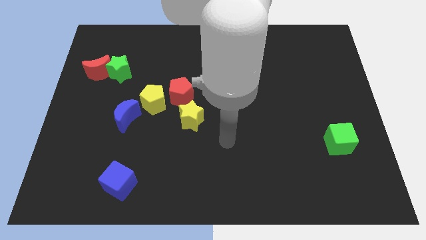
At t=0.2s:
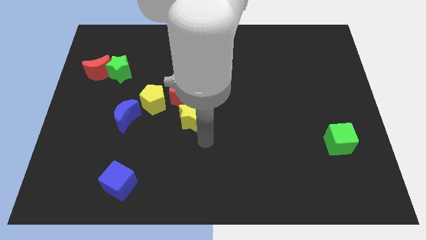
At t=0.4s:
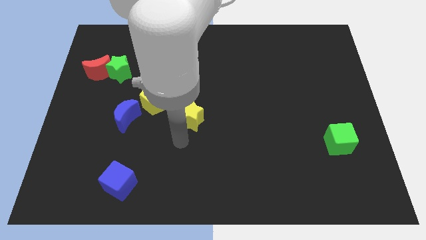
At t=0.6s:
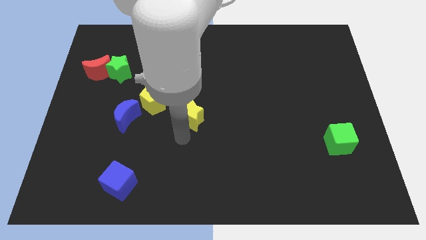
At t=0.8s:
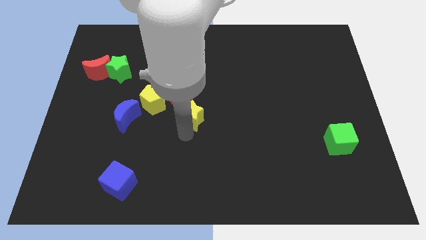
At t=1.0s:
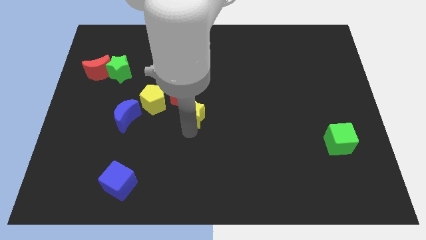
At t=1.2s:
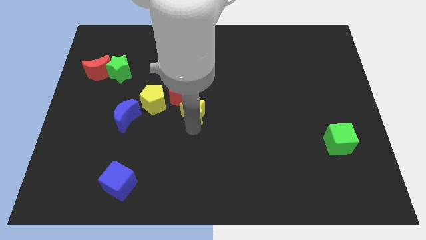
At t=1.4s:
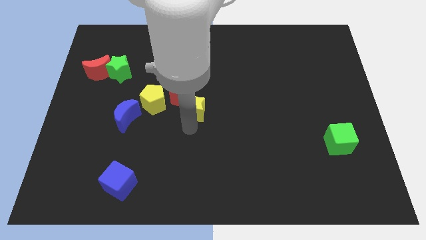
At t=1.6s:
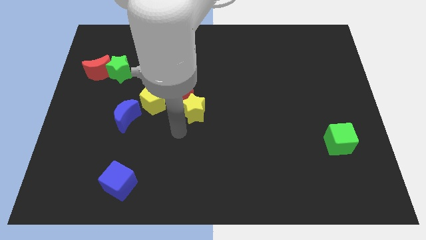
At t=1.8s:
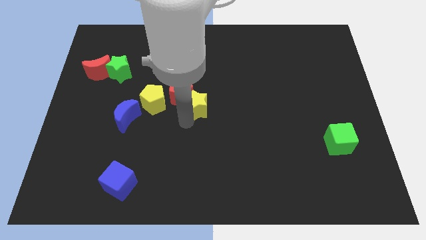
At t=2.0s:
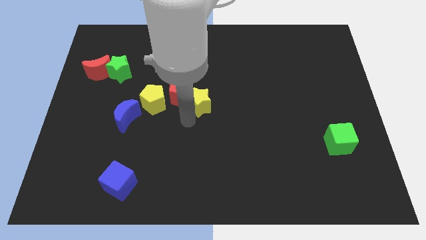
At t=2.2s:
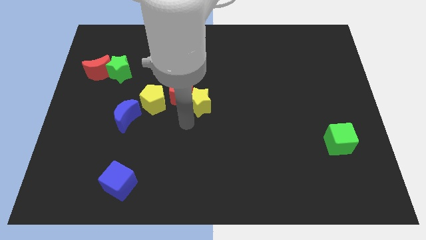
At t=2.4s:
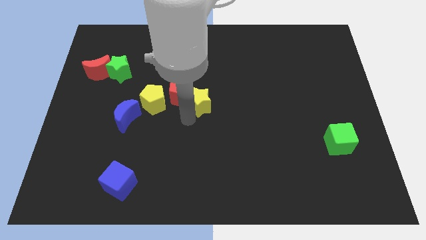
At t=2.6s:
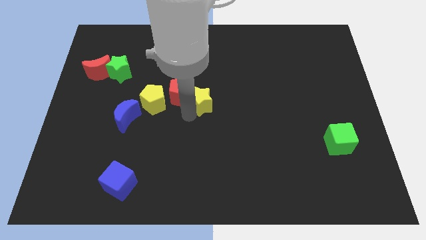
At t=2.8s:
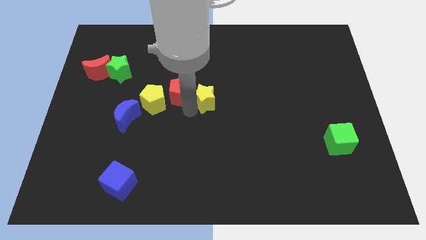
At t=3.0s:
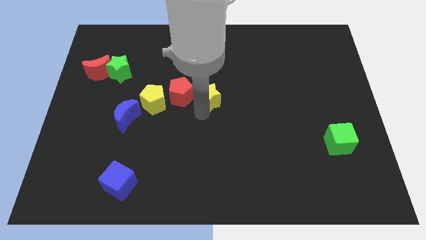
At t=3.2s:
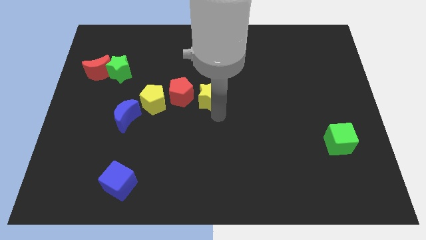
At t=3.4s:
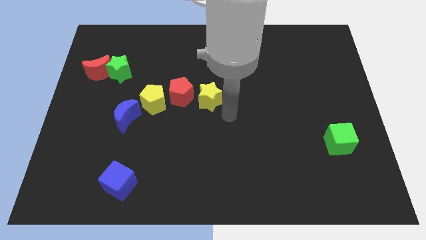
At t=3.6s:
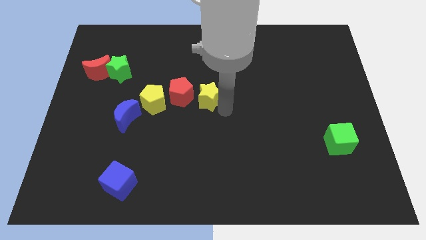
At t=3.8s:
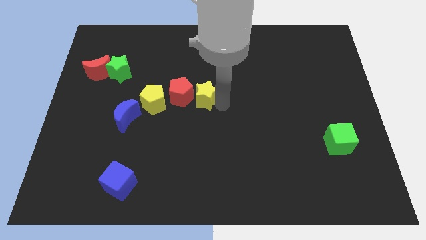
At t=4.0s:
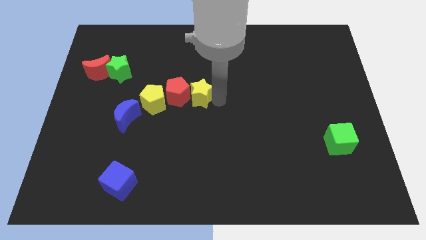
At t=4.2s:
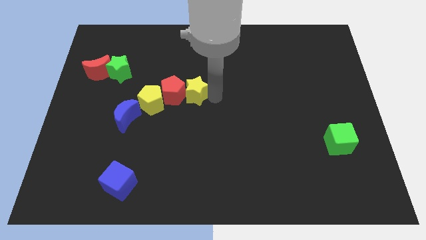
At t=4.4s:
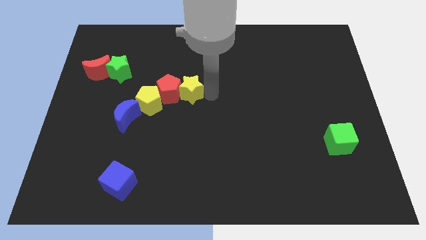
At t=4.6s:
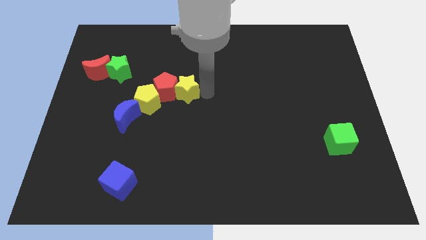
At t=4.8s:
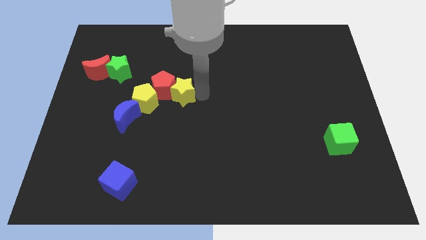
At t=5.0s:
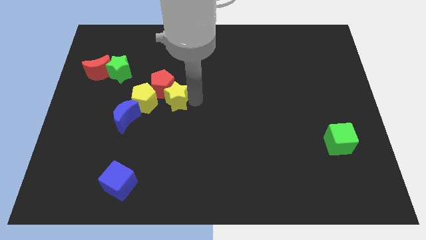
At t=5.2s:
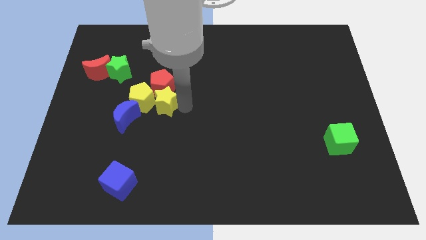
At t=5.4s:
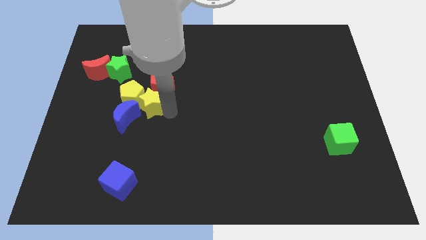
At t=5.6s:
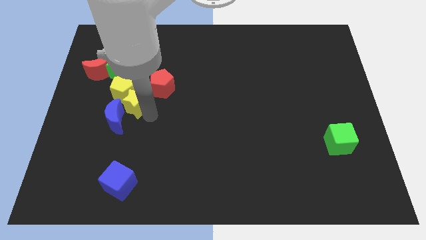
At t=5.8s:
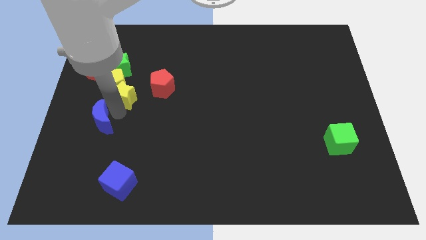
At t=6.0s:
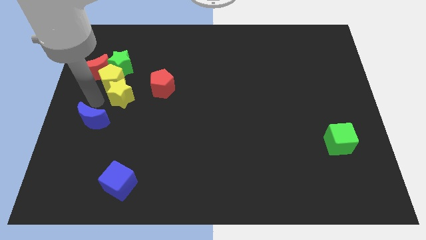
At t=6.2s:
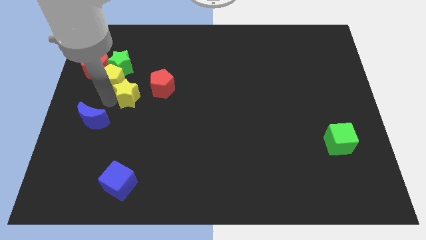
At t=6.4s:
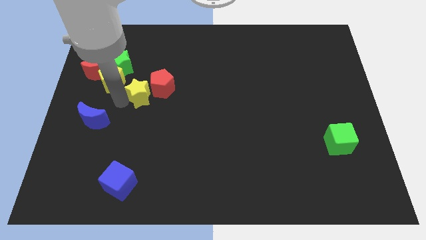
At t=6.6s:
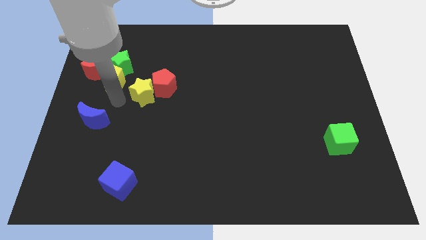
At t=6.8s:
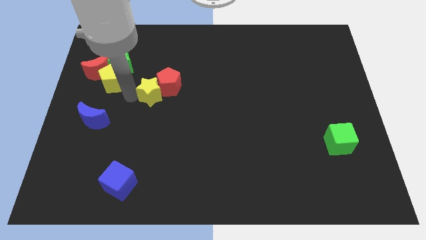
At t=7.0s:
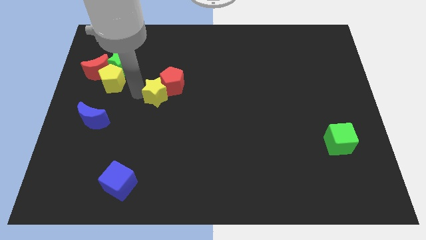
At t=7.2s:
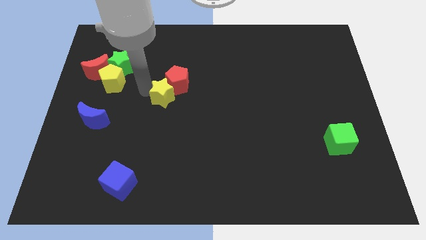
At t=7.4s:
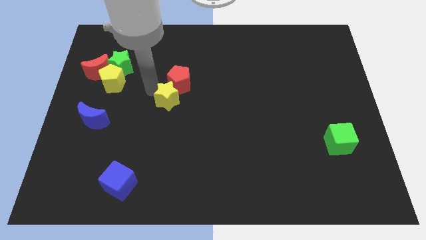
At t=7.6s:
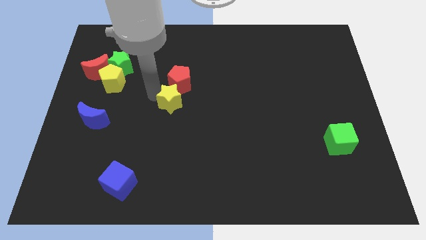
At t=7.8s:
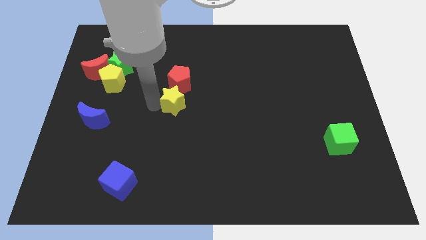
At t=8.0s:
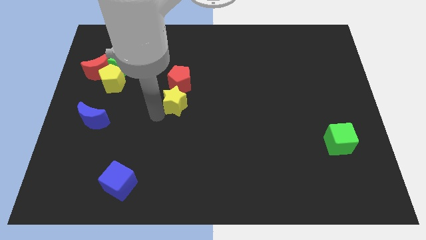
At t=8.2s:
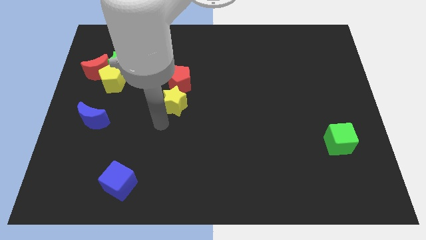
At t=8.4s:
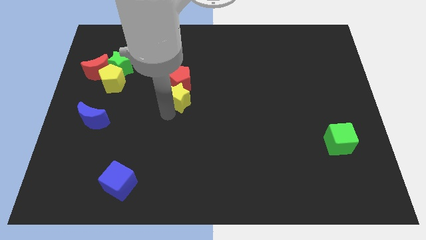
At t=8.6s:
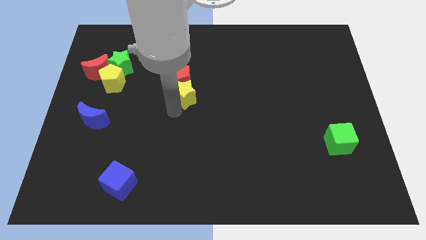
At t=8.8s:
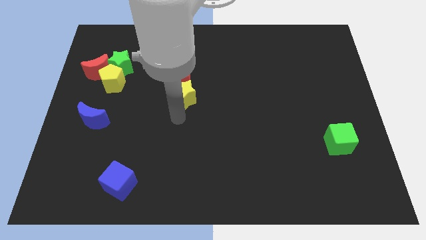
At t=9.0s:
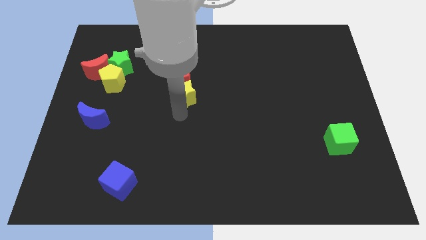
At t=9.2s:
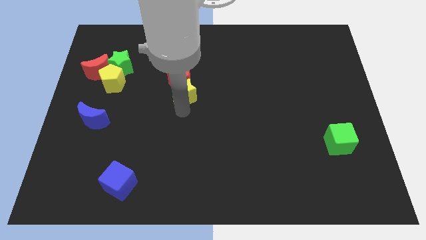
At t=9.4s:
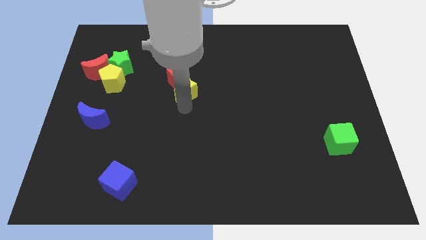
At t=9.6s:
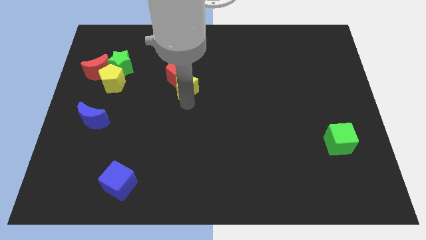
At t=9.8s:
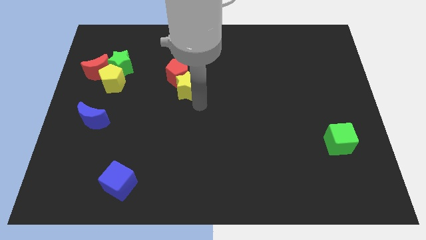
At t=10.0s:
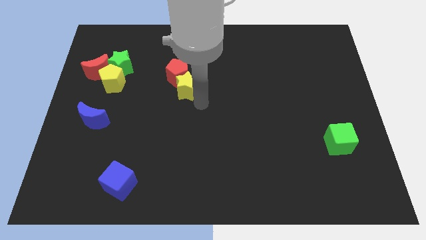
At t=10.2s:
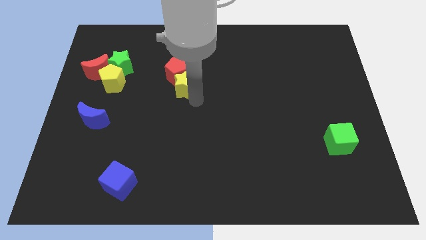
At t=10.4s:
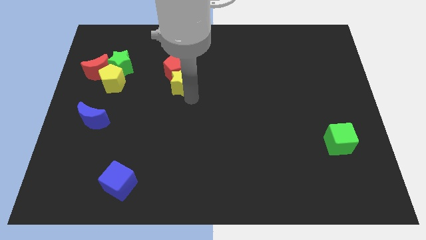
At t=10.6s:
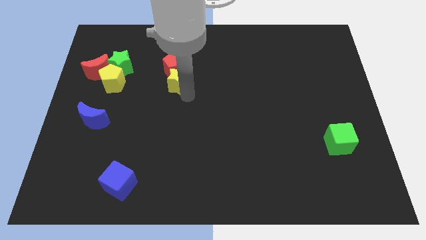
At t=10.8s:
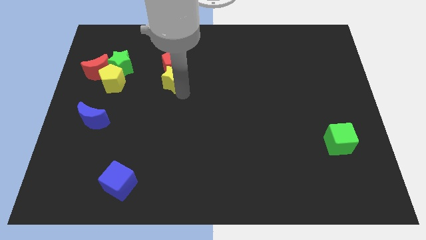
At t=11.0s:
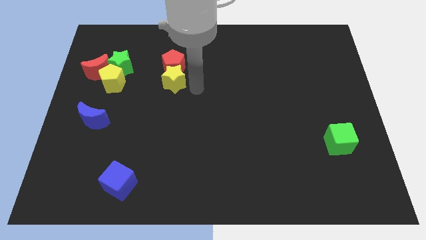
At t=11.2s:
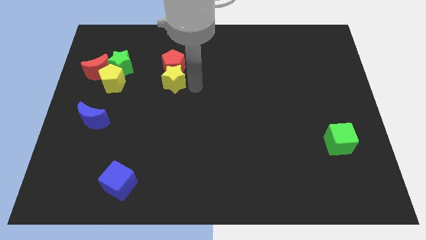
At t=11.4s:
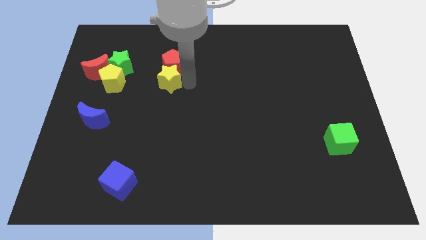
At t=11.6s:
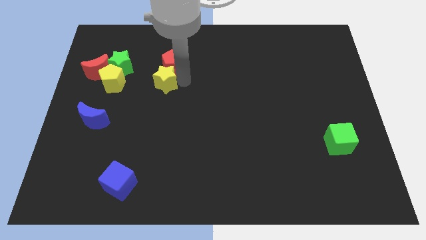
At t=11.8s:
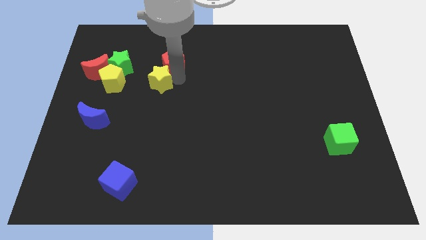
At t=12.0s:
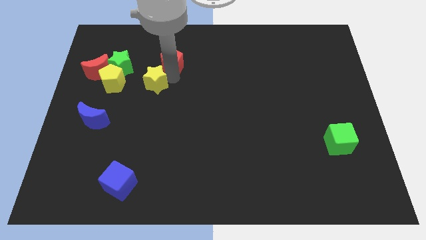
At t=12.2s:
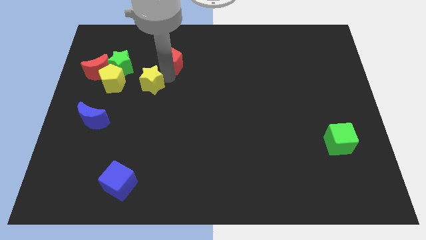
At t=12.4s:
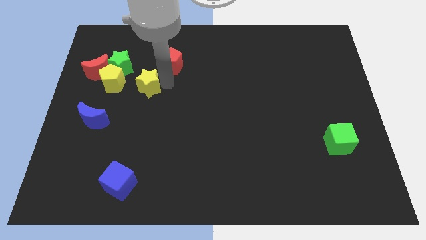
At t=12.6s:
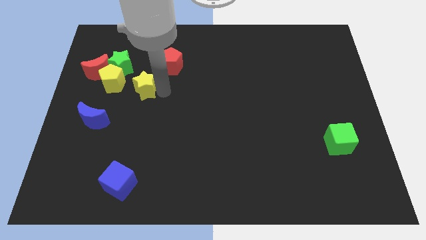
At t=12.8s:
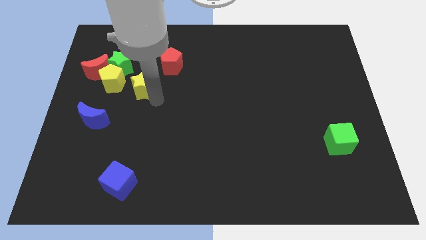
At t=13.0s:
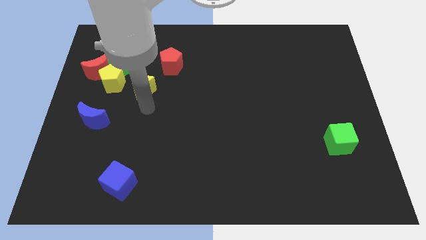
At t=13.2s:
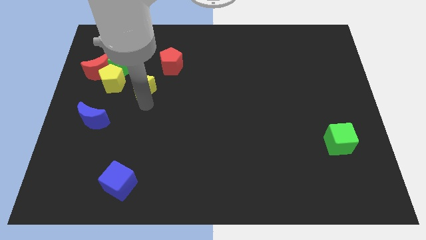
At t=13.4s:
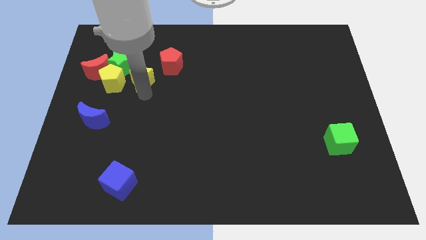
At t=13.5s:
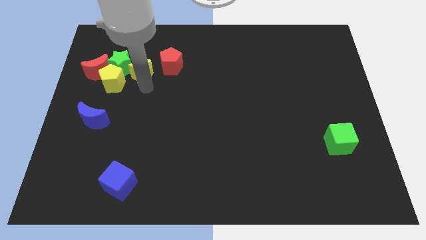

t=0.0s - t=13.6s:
move the yellow star close to the green star
